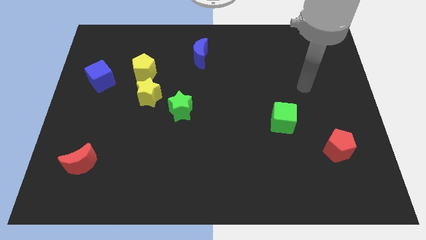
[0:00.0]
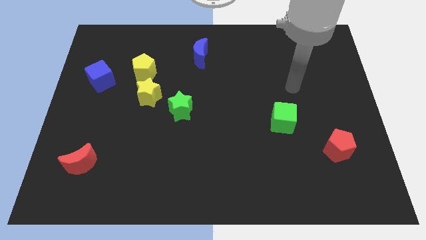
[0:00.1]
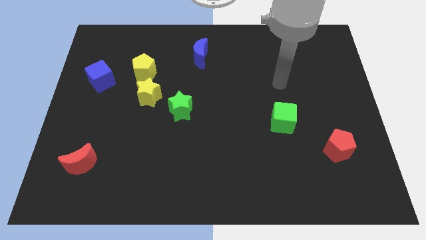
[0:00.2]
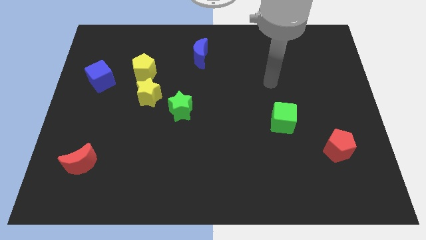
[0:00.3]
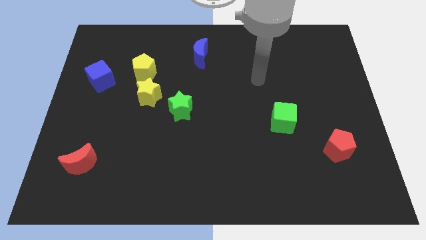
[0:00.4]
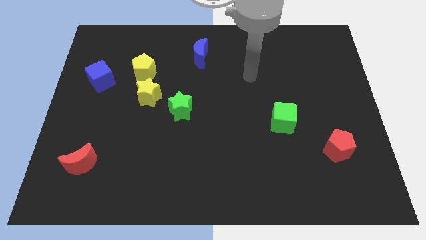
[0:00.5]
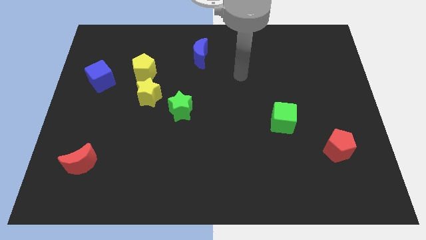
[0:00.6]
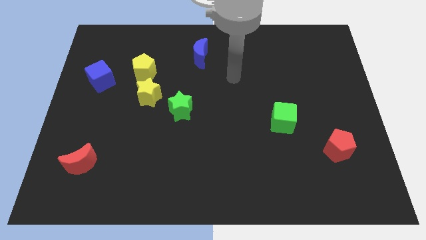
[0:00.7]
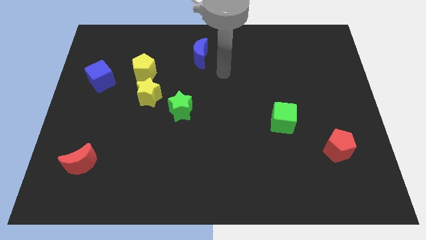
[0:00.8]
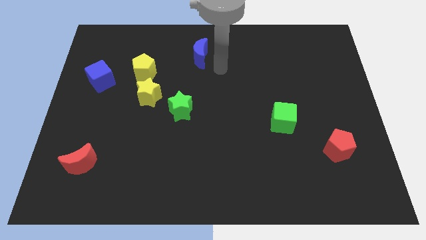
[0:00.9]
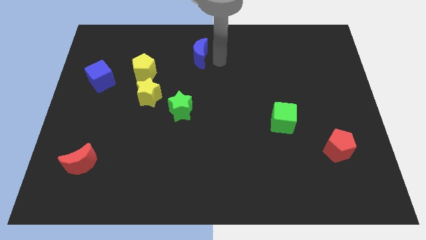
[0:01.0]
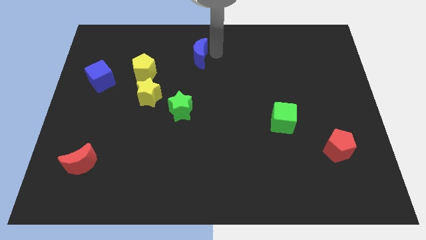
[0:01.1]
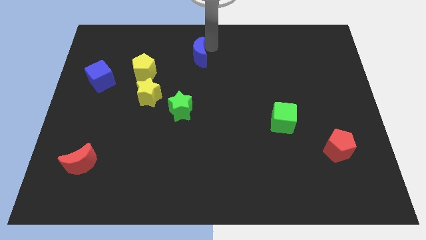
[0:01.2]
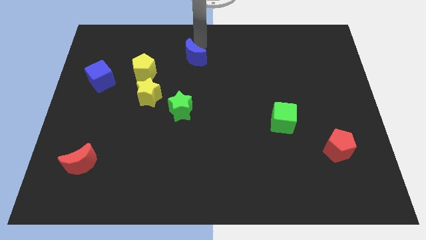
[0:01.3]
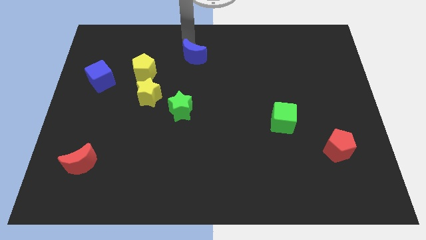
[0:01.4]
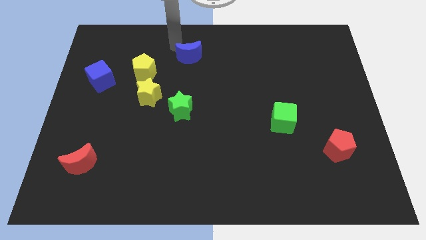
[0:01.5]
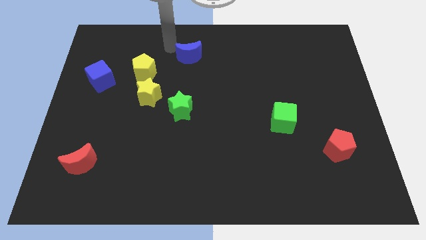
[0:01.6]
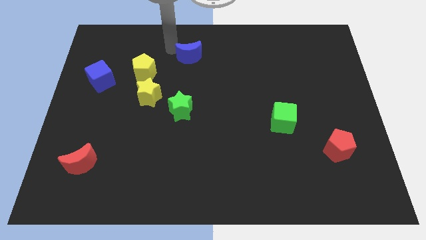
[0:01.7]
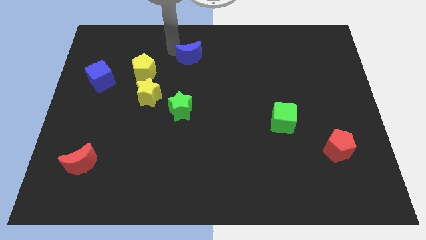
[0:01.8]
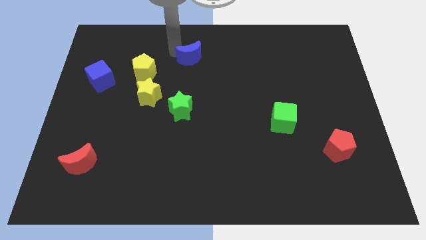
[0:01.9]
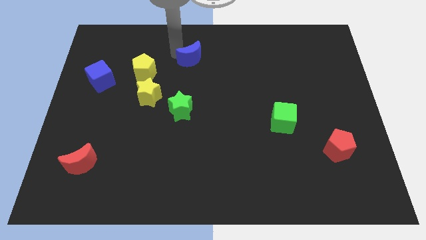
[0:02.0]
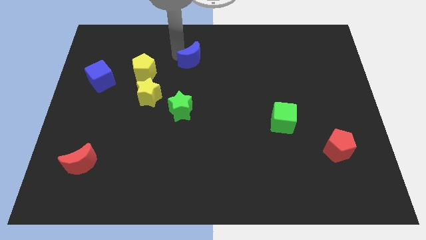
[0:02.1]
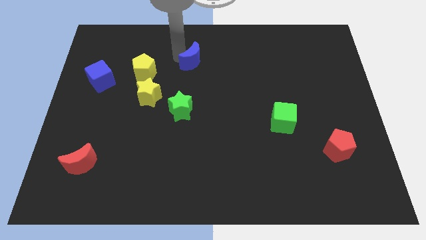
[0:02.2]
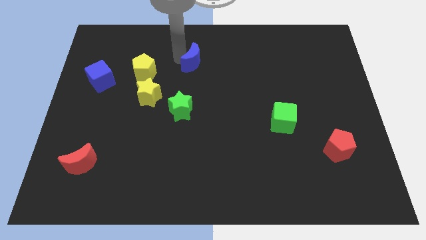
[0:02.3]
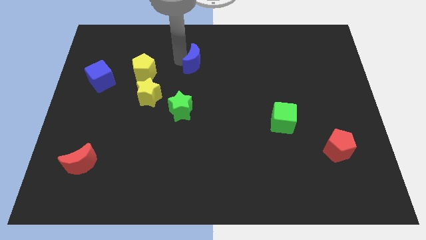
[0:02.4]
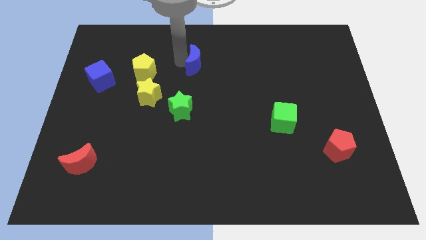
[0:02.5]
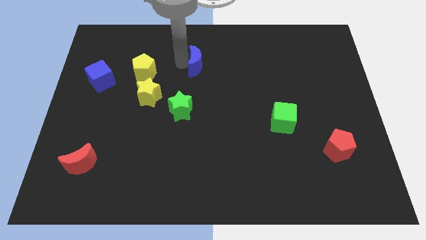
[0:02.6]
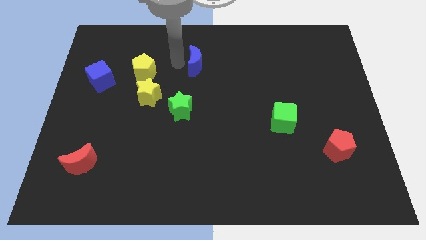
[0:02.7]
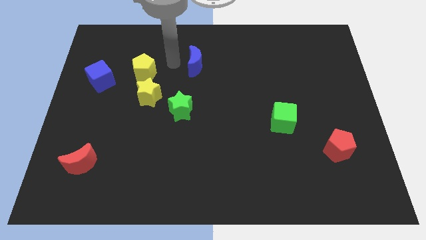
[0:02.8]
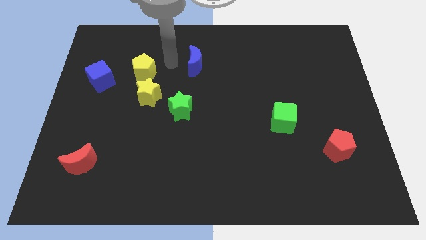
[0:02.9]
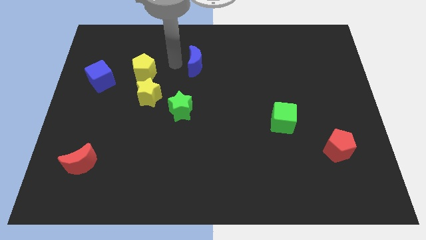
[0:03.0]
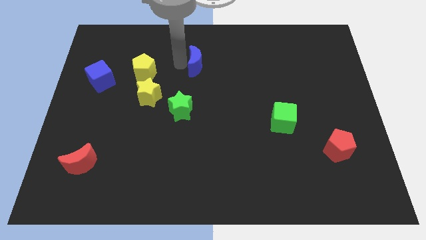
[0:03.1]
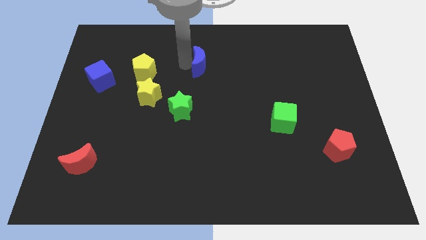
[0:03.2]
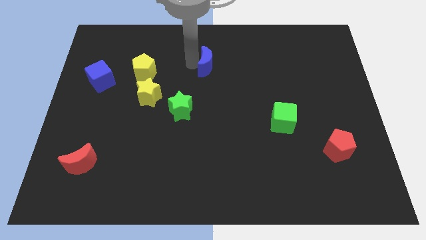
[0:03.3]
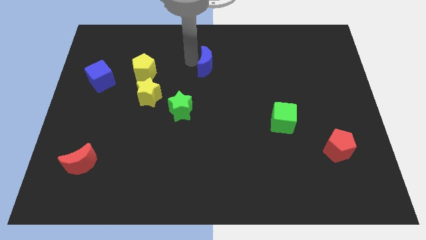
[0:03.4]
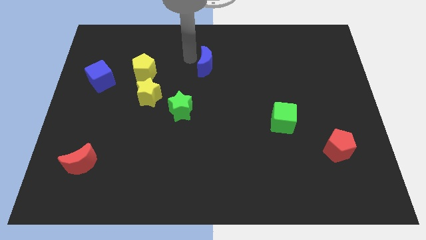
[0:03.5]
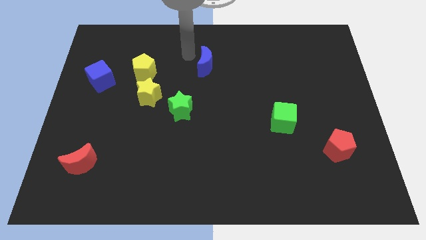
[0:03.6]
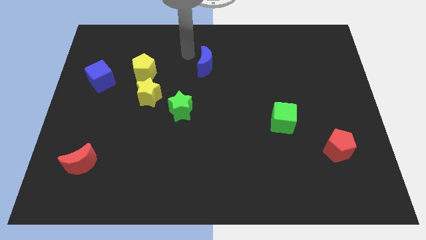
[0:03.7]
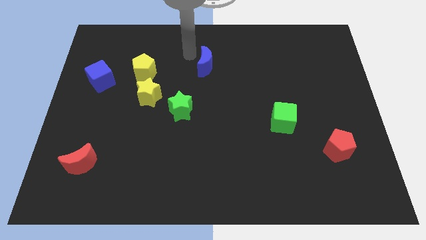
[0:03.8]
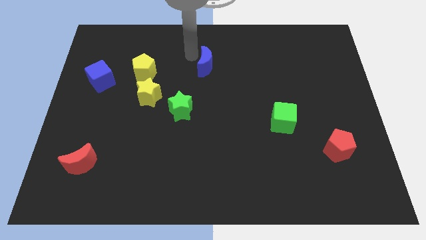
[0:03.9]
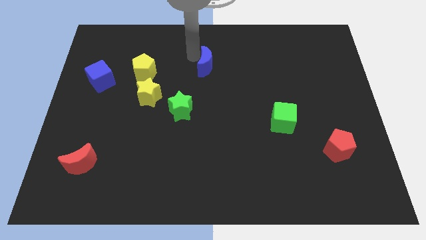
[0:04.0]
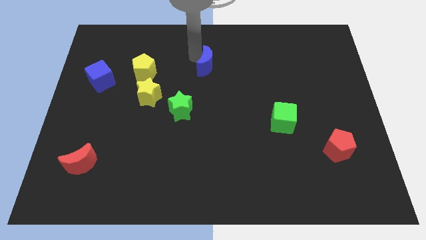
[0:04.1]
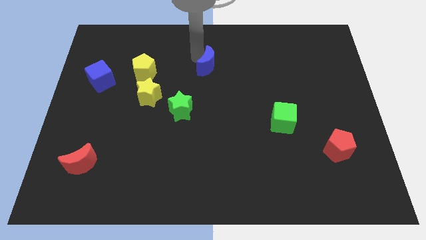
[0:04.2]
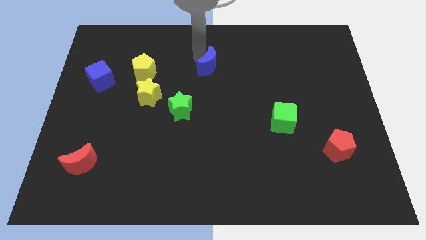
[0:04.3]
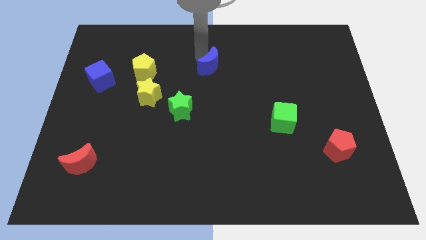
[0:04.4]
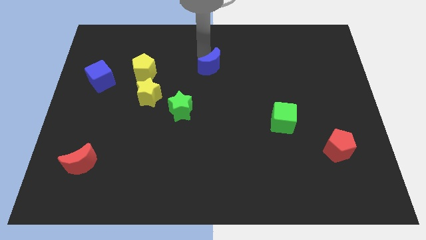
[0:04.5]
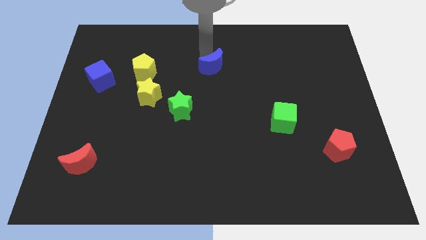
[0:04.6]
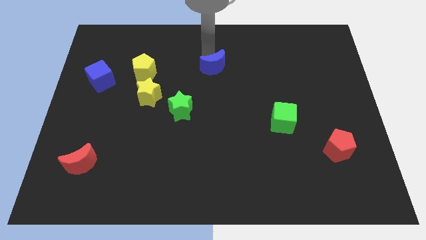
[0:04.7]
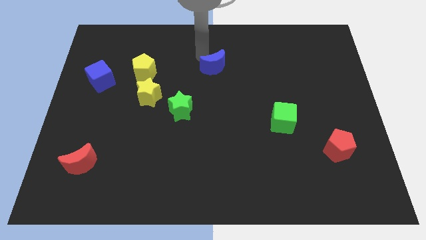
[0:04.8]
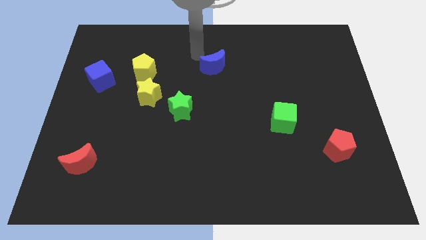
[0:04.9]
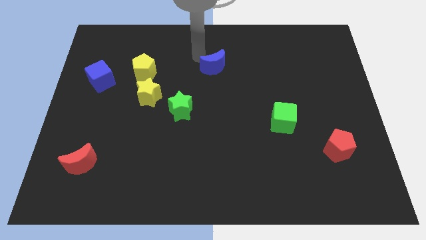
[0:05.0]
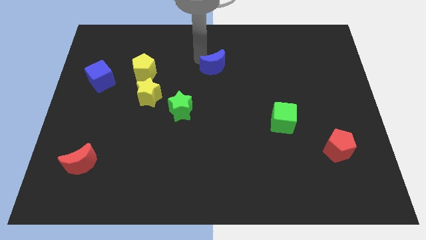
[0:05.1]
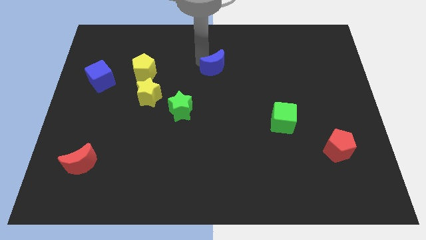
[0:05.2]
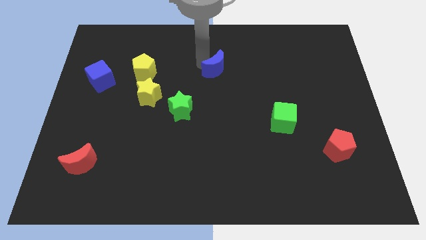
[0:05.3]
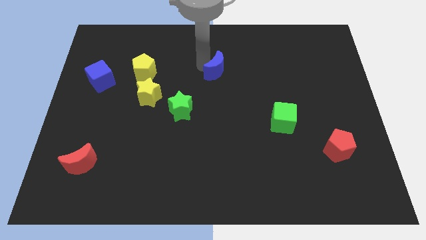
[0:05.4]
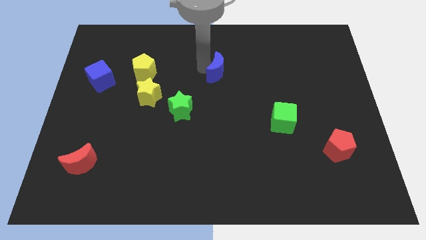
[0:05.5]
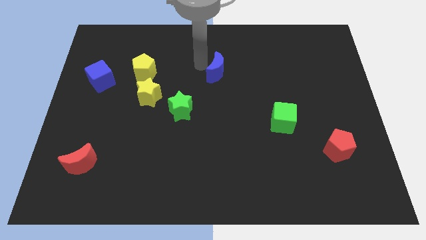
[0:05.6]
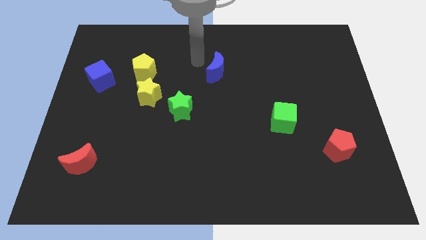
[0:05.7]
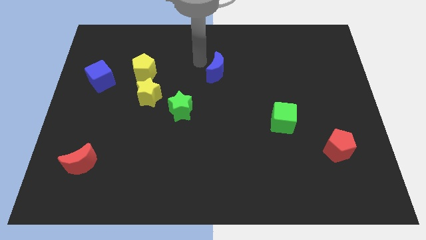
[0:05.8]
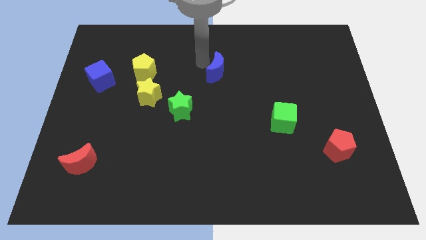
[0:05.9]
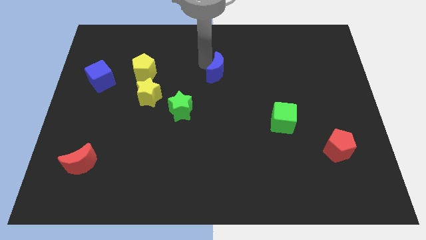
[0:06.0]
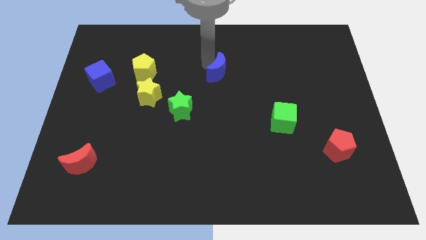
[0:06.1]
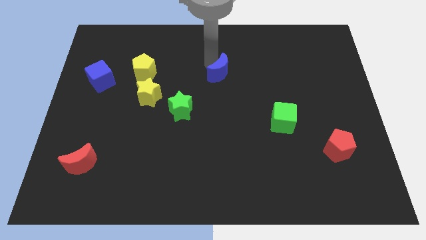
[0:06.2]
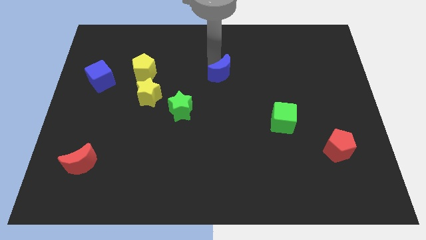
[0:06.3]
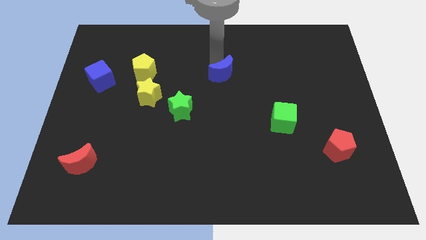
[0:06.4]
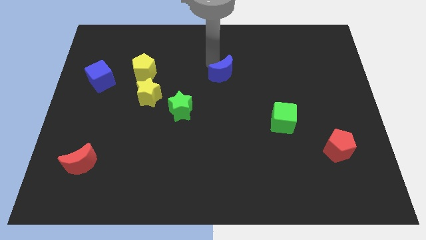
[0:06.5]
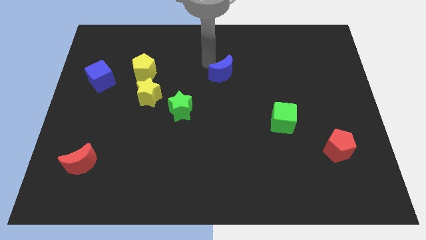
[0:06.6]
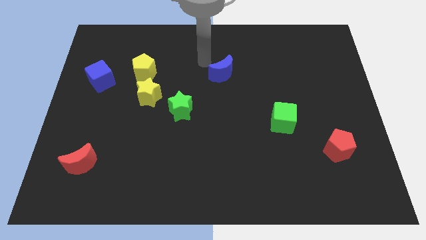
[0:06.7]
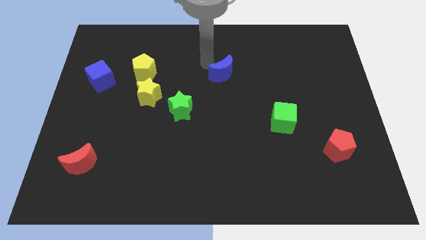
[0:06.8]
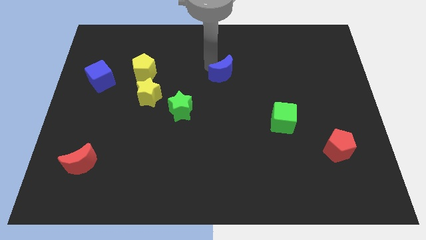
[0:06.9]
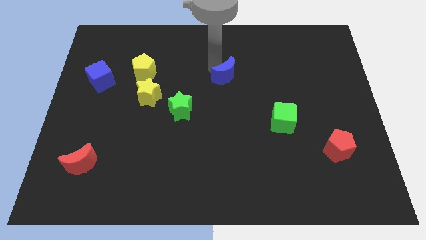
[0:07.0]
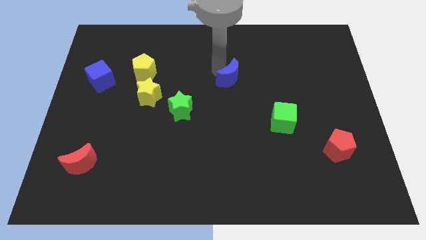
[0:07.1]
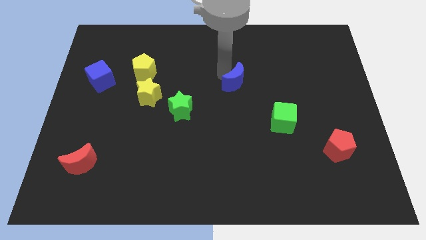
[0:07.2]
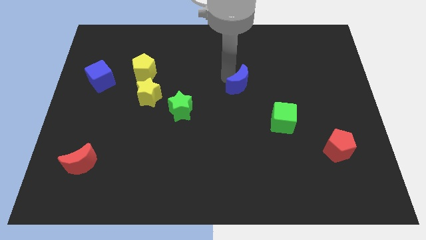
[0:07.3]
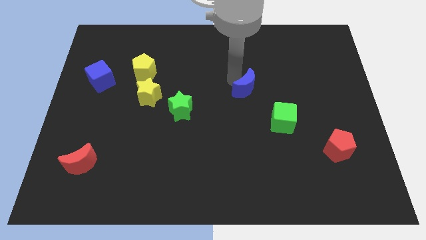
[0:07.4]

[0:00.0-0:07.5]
slide the blue moon to the top left of the green cube

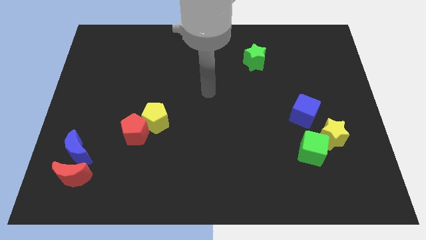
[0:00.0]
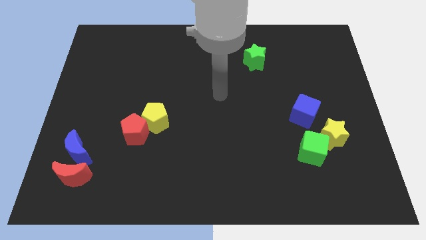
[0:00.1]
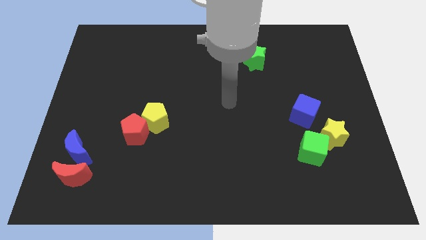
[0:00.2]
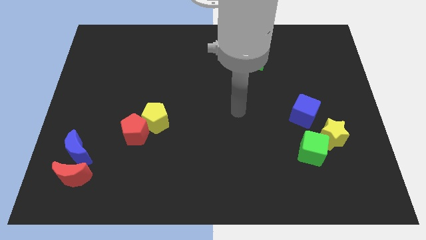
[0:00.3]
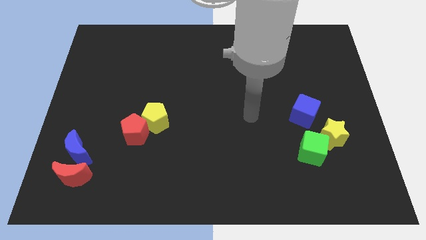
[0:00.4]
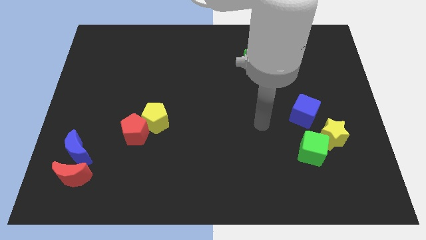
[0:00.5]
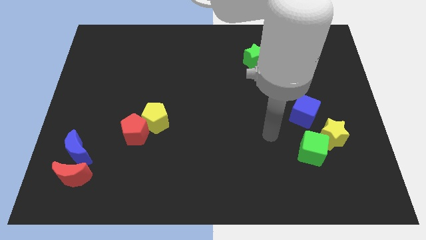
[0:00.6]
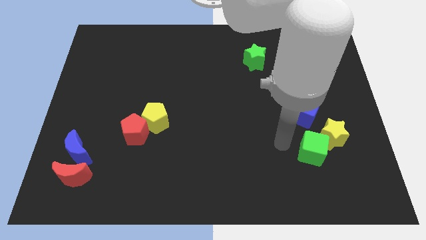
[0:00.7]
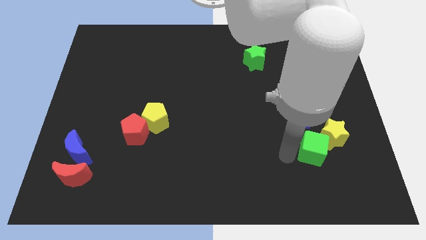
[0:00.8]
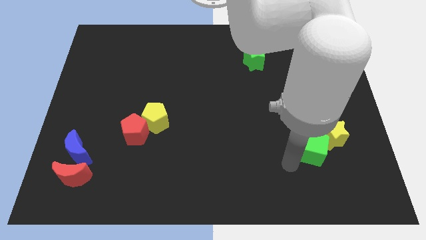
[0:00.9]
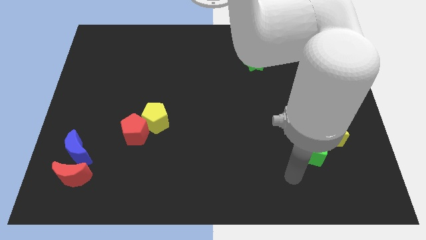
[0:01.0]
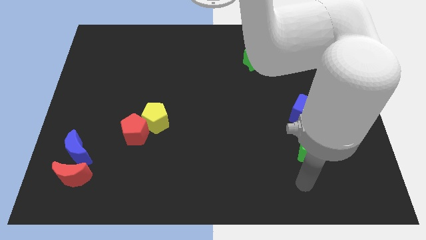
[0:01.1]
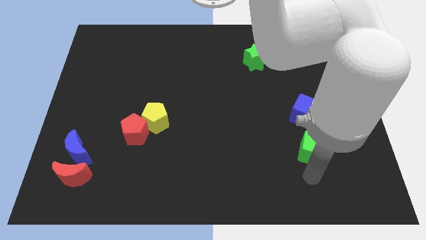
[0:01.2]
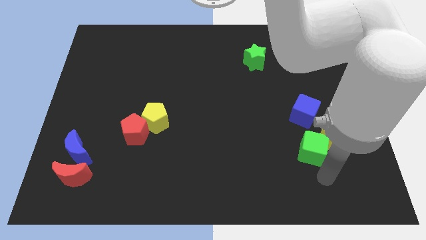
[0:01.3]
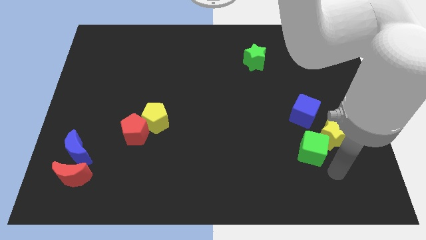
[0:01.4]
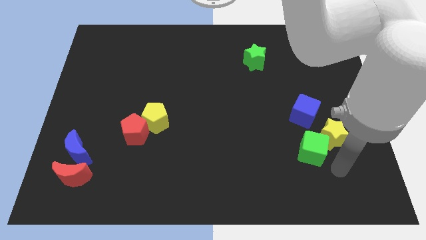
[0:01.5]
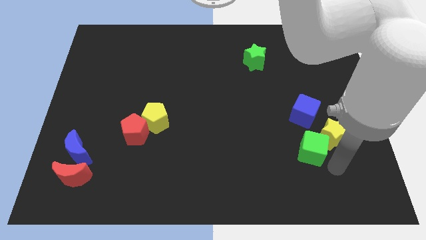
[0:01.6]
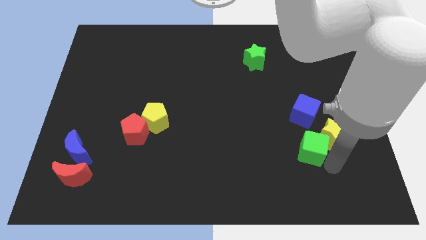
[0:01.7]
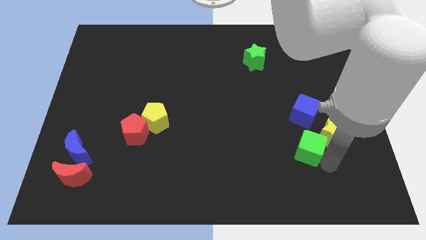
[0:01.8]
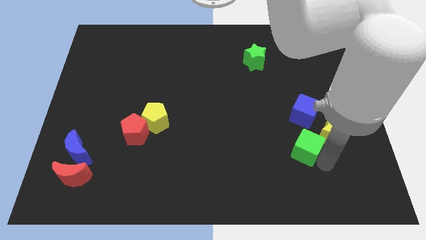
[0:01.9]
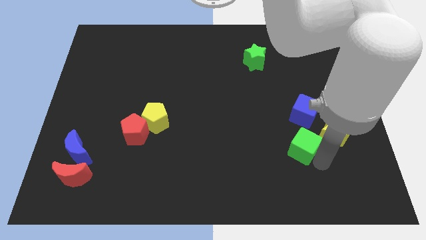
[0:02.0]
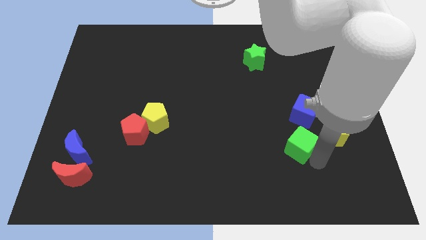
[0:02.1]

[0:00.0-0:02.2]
slide the green cube diagonally down and to the left of the blue cube
